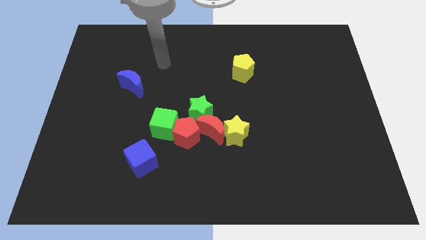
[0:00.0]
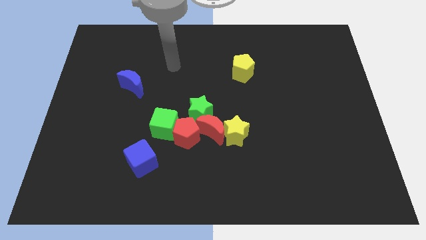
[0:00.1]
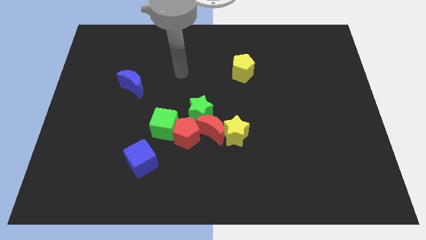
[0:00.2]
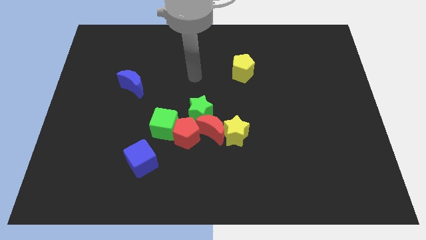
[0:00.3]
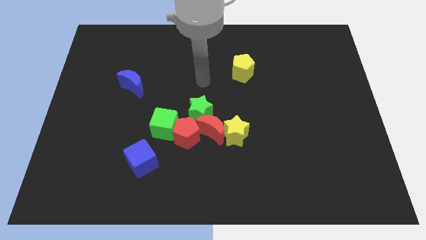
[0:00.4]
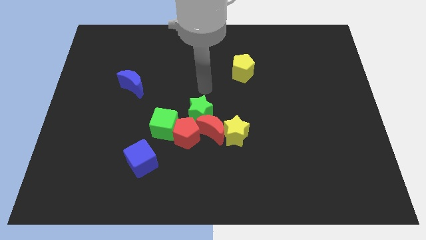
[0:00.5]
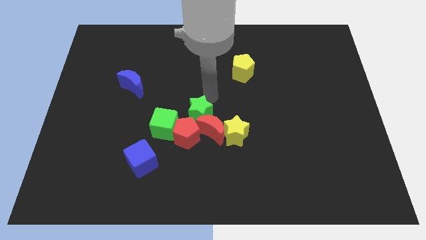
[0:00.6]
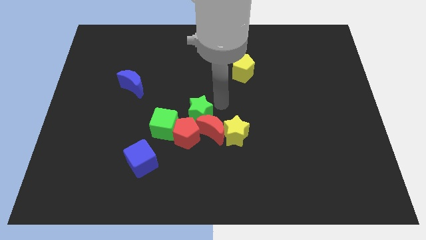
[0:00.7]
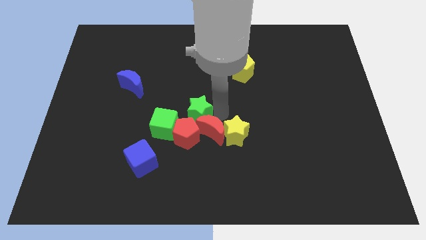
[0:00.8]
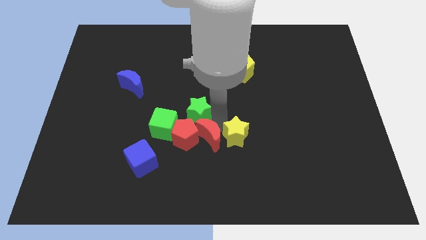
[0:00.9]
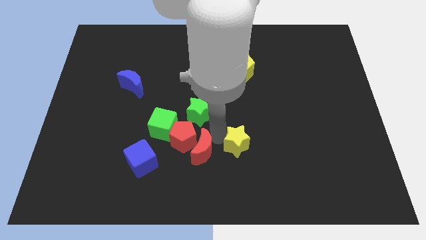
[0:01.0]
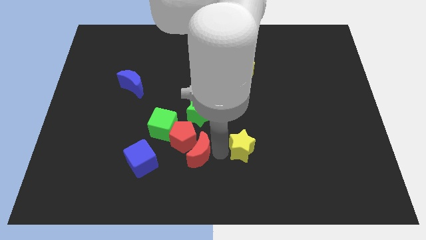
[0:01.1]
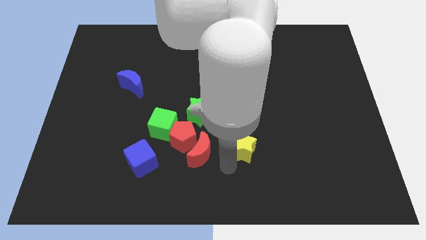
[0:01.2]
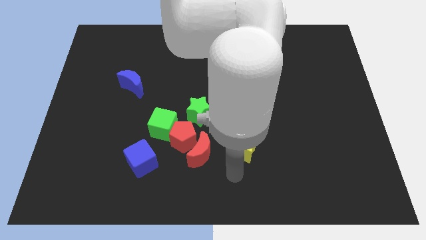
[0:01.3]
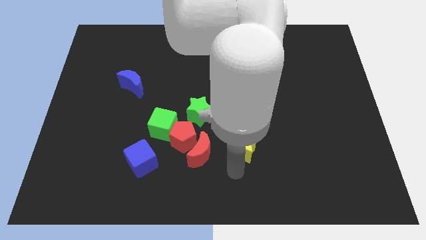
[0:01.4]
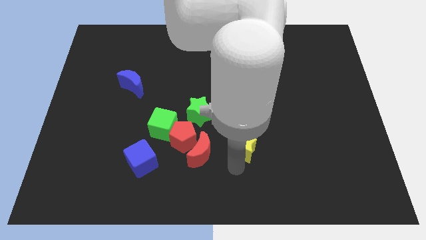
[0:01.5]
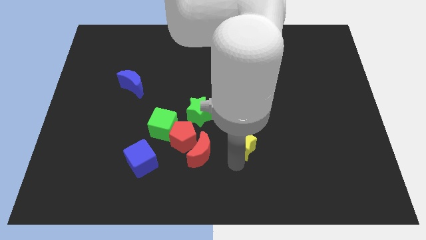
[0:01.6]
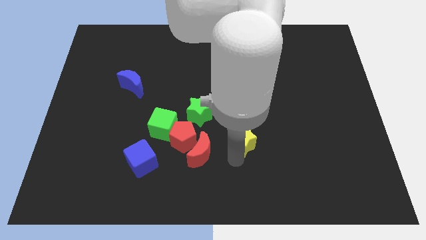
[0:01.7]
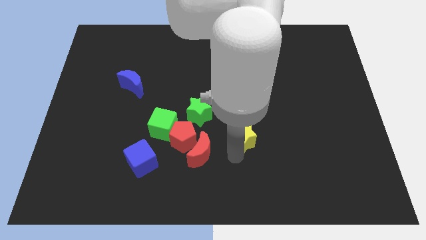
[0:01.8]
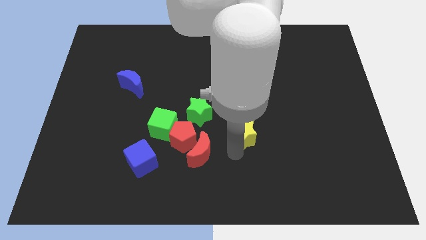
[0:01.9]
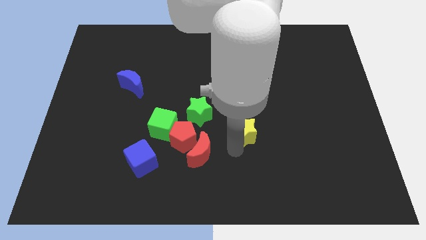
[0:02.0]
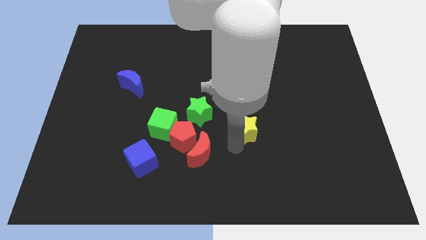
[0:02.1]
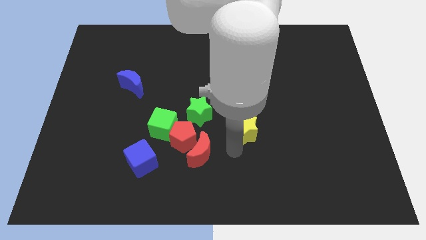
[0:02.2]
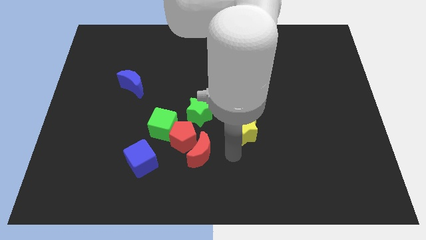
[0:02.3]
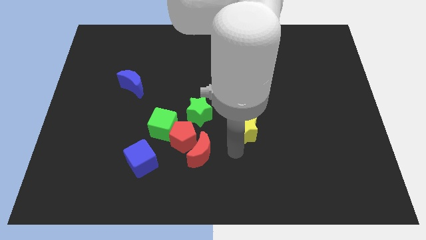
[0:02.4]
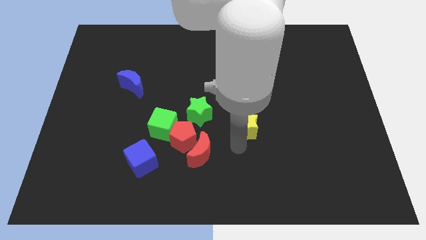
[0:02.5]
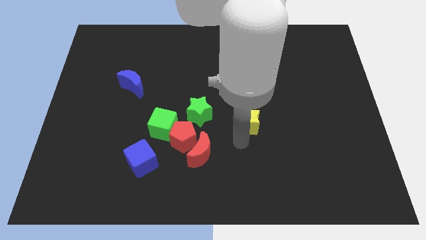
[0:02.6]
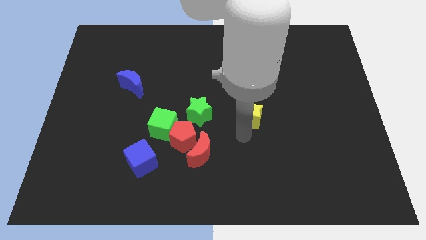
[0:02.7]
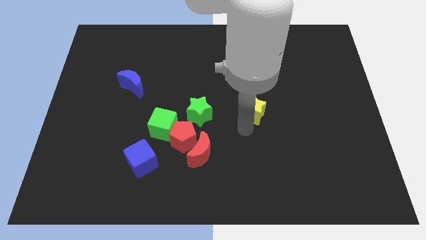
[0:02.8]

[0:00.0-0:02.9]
slide the yellow star a little up and right diagonally

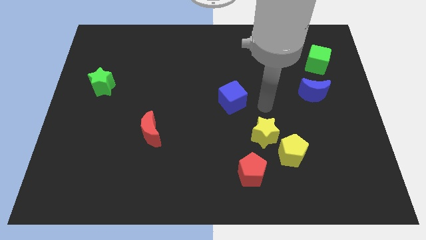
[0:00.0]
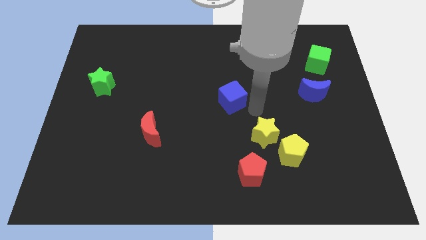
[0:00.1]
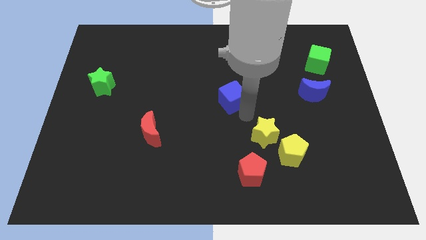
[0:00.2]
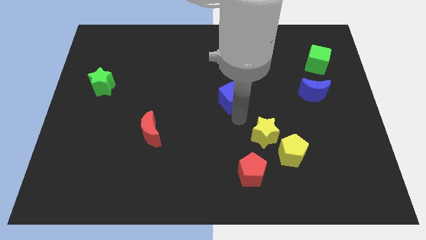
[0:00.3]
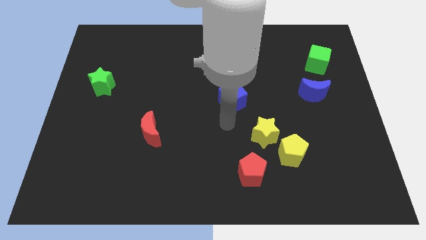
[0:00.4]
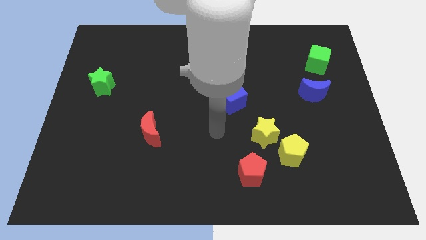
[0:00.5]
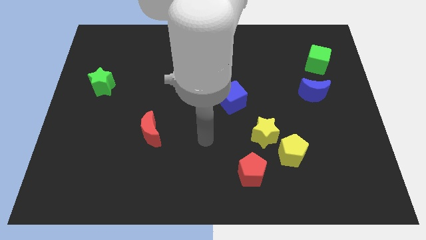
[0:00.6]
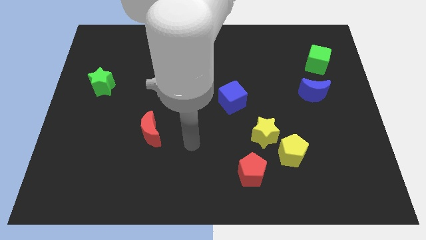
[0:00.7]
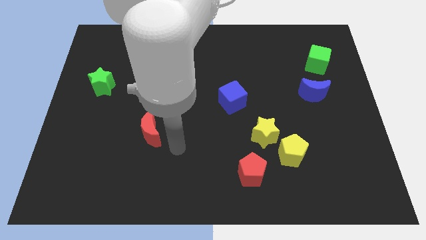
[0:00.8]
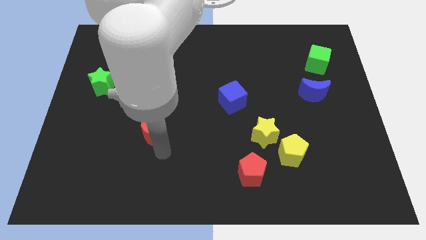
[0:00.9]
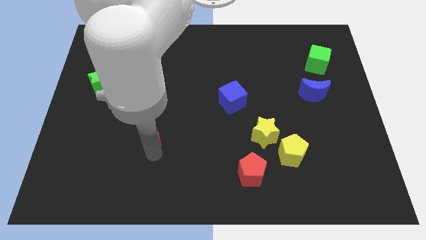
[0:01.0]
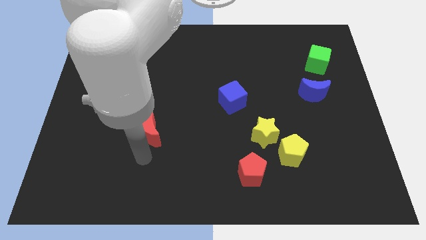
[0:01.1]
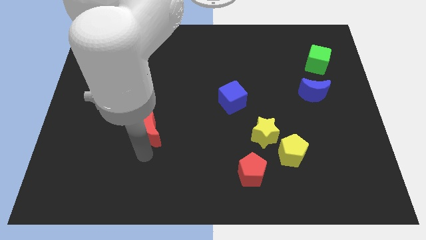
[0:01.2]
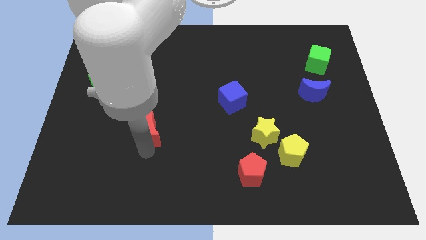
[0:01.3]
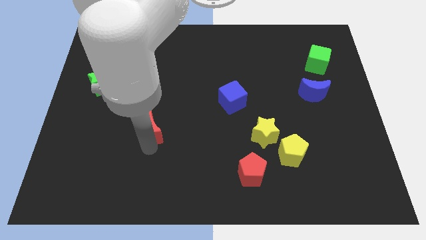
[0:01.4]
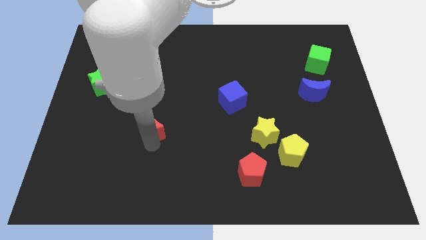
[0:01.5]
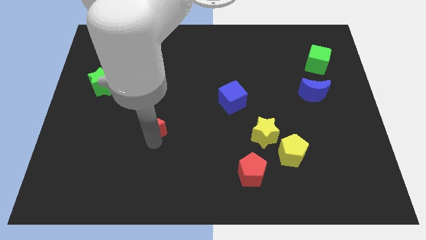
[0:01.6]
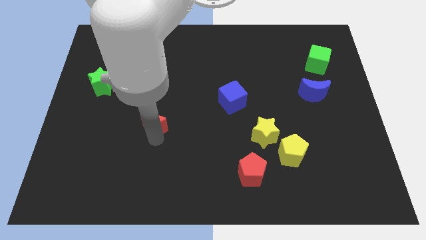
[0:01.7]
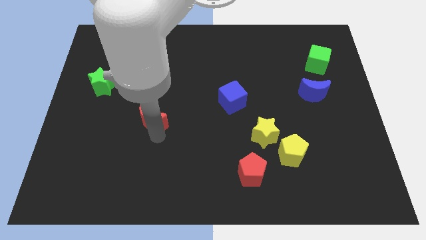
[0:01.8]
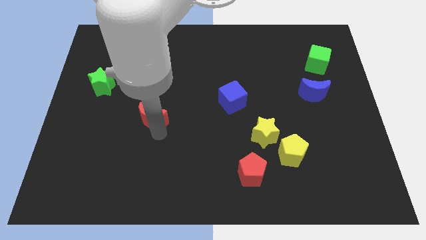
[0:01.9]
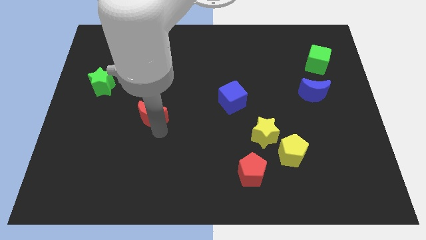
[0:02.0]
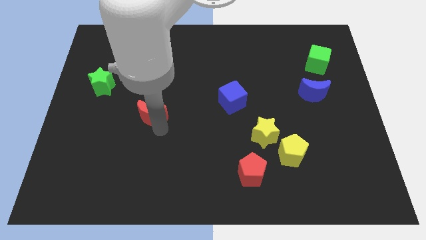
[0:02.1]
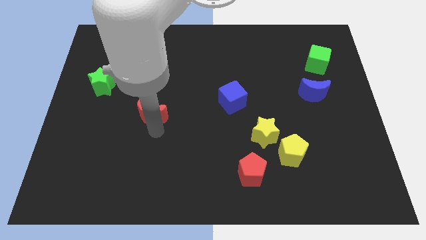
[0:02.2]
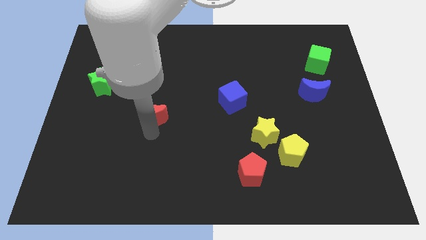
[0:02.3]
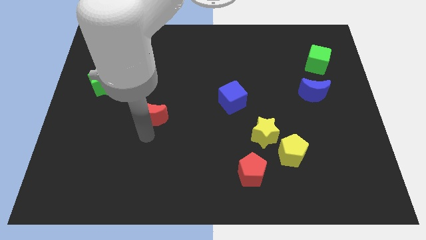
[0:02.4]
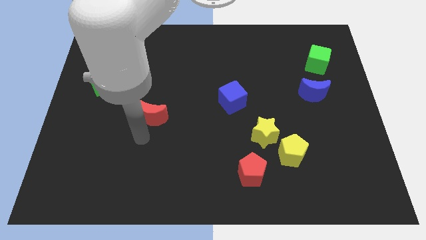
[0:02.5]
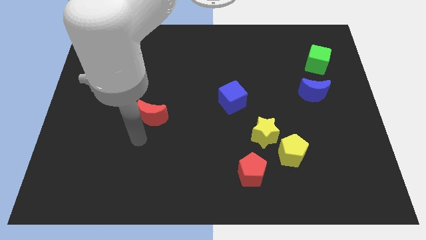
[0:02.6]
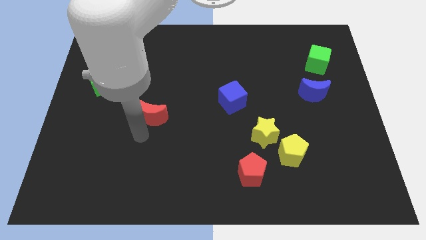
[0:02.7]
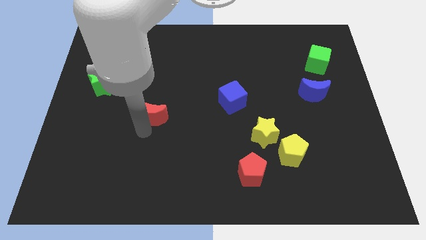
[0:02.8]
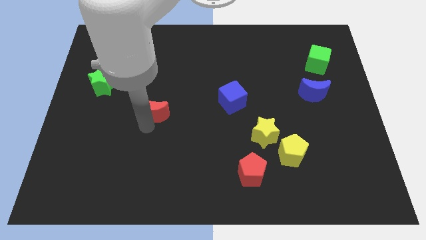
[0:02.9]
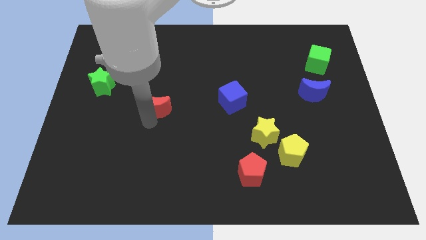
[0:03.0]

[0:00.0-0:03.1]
move the red moon up a little

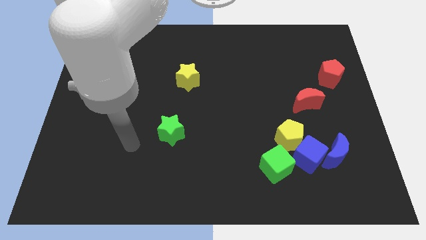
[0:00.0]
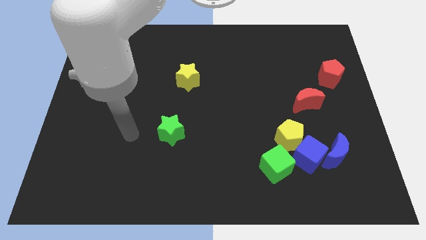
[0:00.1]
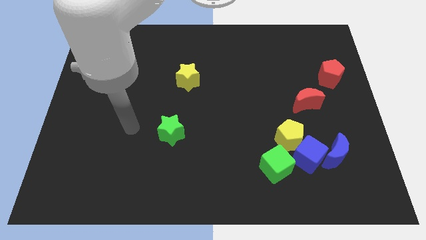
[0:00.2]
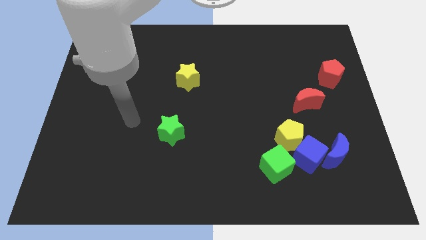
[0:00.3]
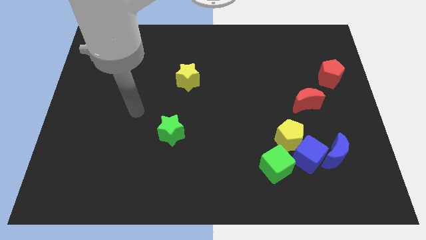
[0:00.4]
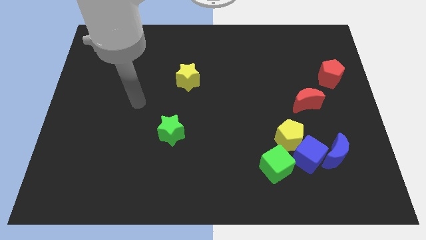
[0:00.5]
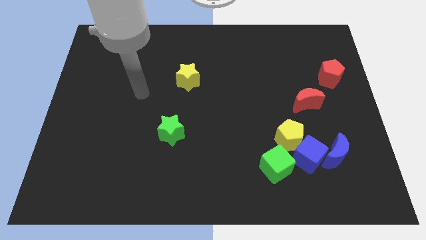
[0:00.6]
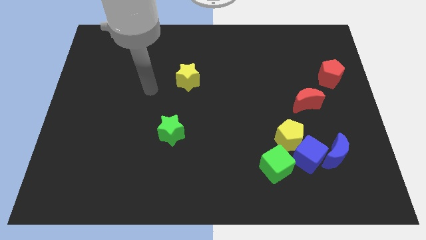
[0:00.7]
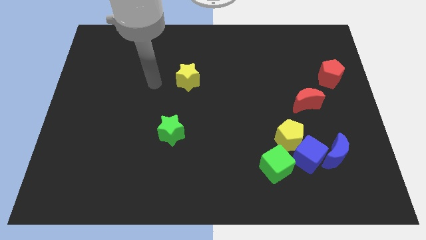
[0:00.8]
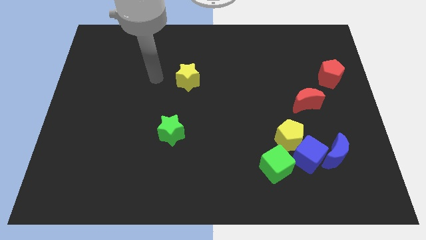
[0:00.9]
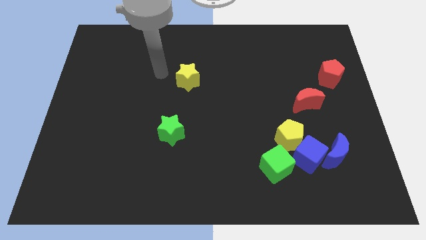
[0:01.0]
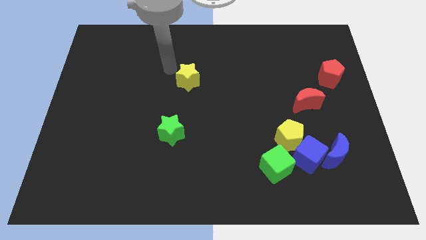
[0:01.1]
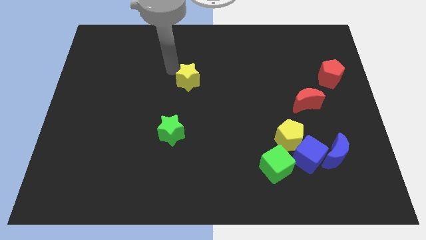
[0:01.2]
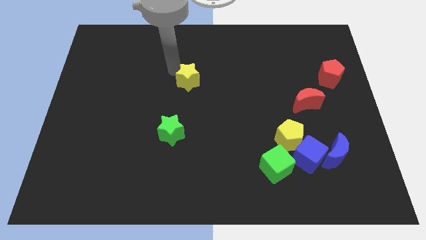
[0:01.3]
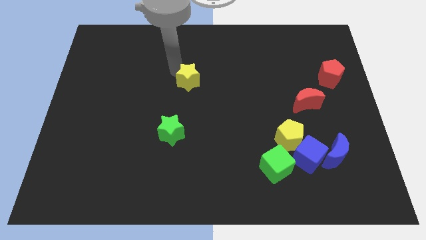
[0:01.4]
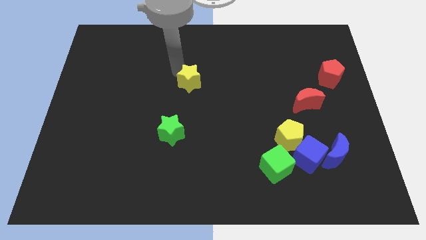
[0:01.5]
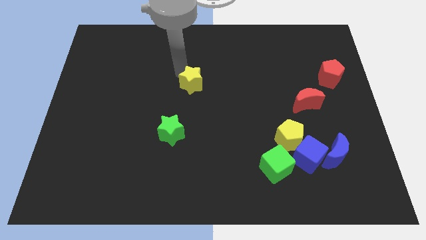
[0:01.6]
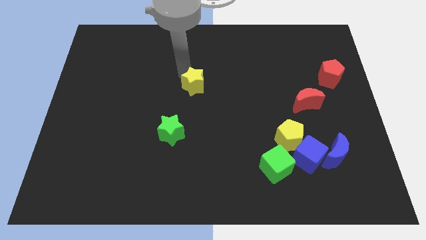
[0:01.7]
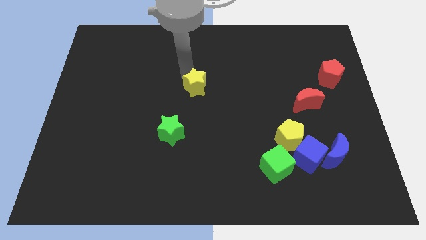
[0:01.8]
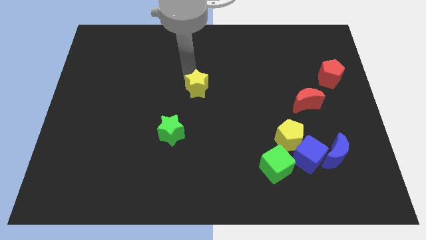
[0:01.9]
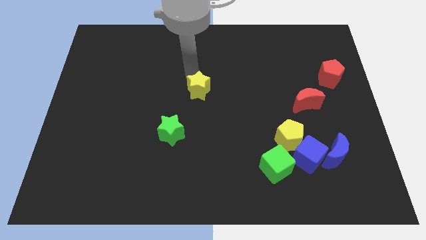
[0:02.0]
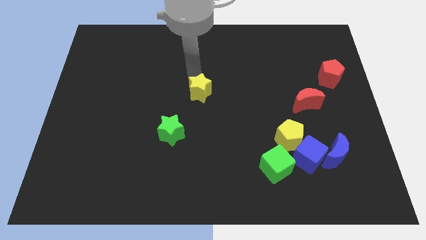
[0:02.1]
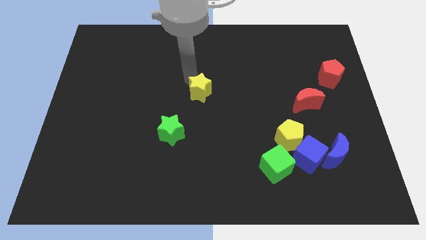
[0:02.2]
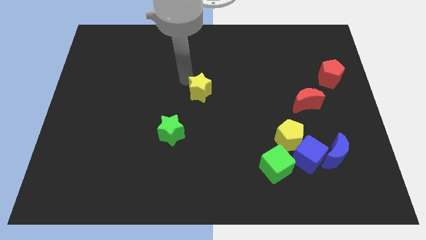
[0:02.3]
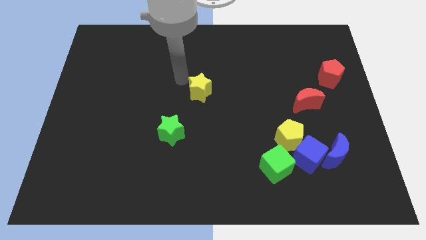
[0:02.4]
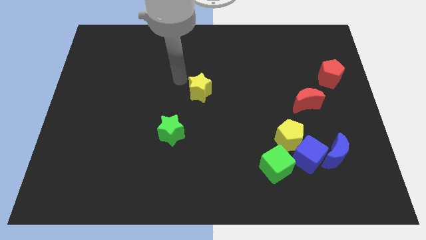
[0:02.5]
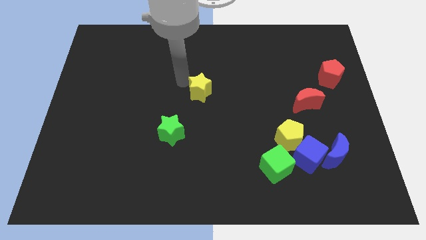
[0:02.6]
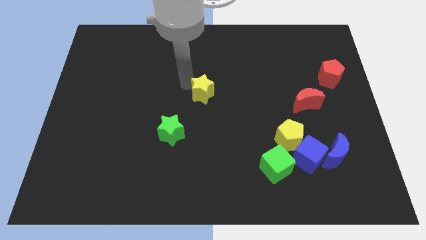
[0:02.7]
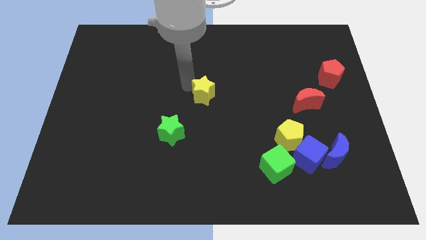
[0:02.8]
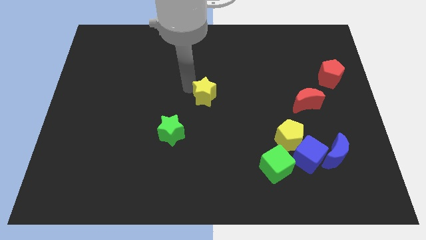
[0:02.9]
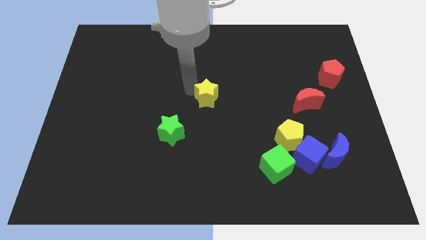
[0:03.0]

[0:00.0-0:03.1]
slightly slide the yellow star diagonally downwards and to the right
